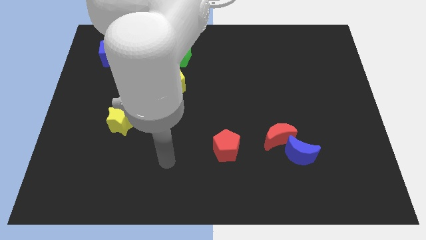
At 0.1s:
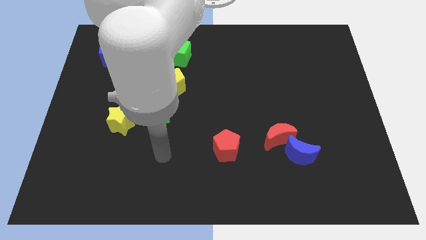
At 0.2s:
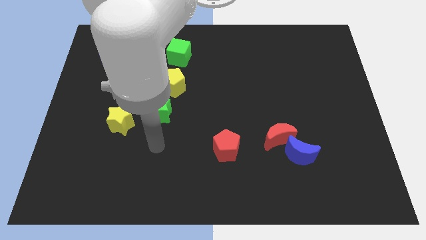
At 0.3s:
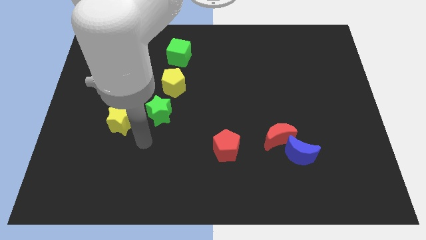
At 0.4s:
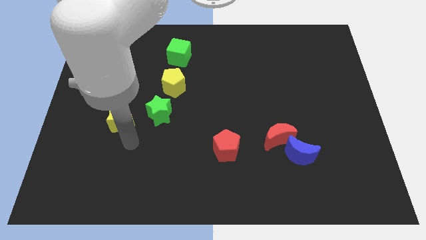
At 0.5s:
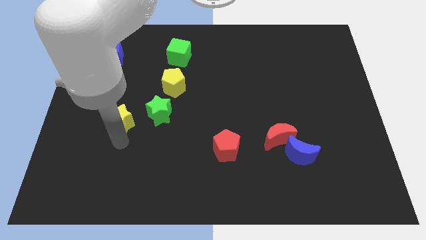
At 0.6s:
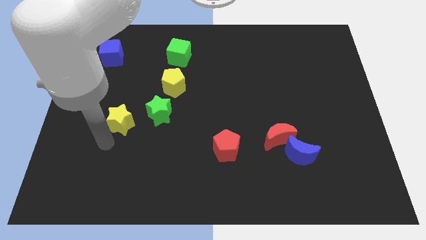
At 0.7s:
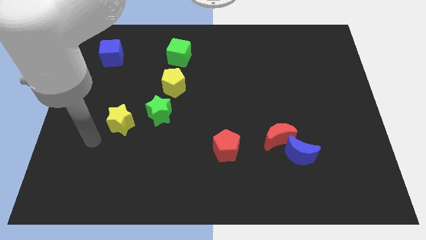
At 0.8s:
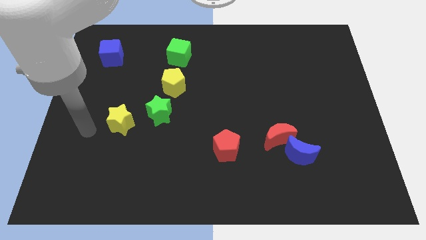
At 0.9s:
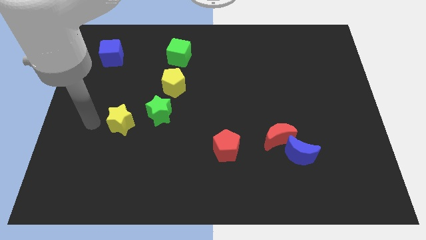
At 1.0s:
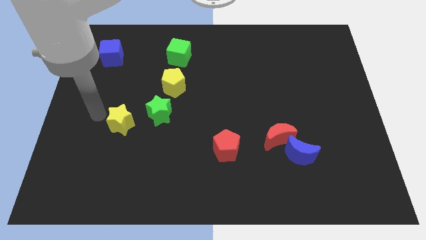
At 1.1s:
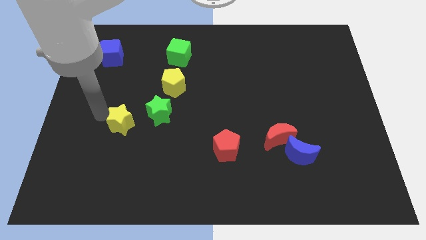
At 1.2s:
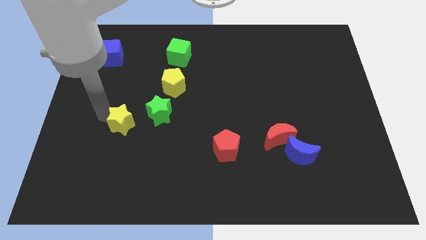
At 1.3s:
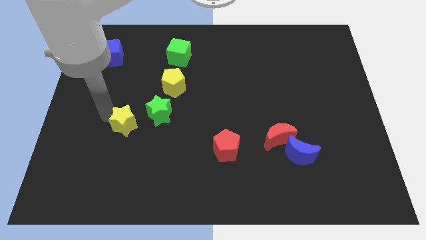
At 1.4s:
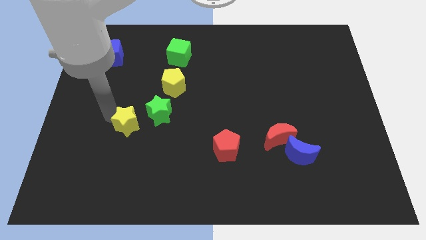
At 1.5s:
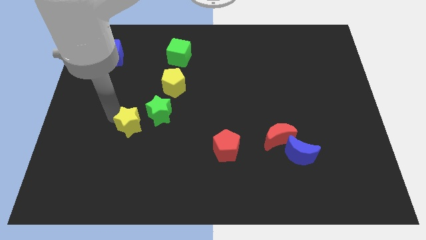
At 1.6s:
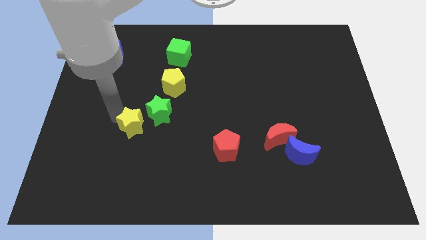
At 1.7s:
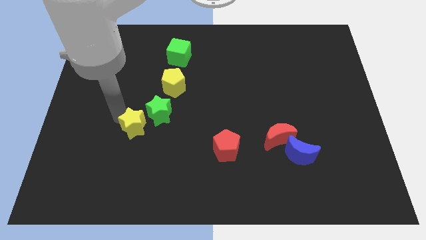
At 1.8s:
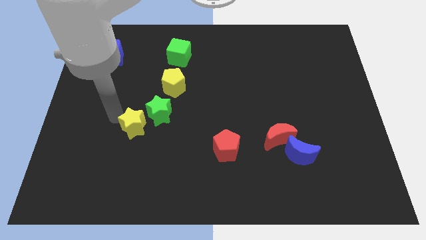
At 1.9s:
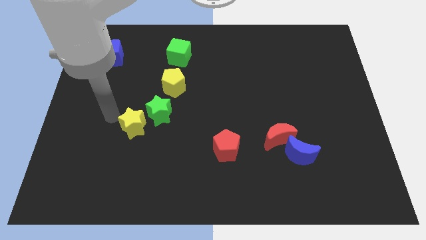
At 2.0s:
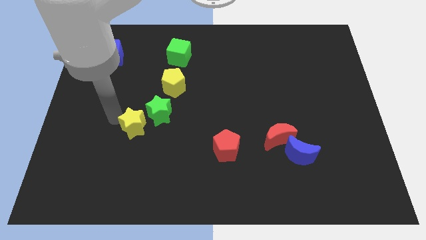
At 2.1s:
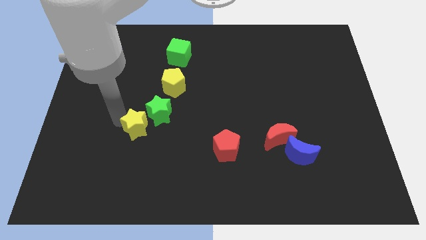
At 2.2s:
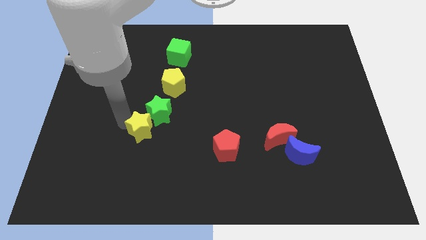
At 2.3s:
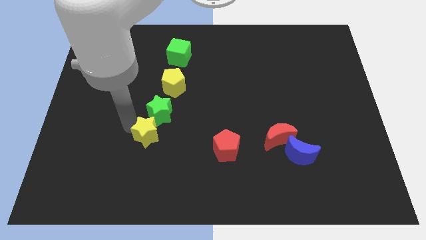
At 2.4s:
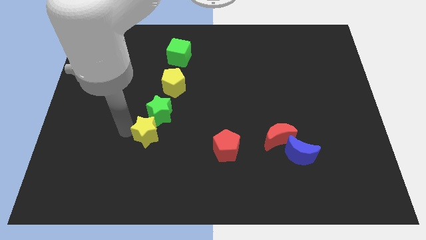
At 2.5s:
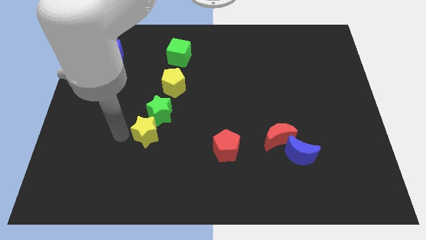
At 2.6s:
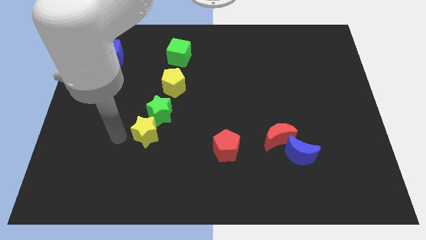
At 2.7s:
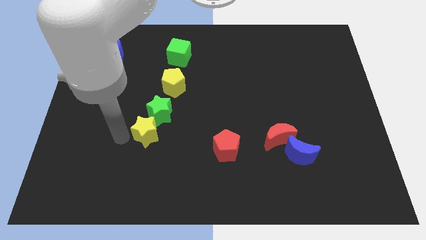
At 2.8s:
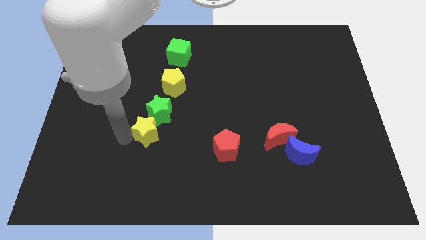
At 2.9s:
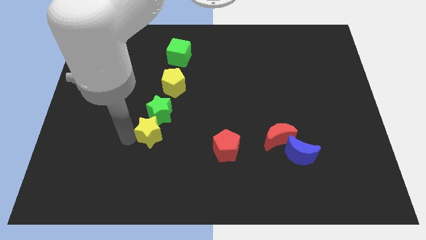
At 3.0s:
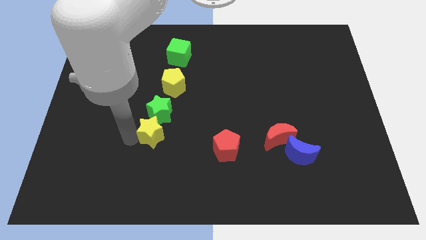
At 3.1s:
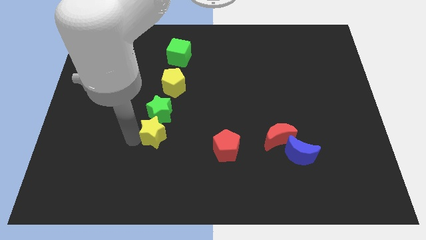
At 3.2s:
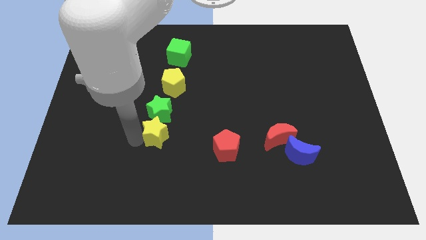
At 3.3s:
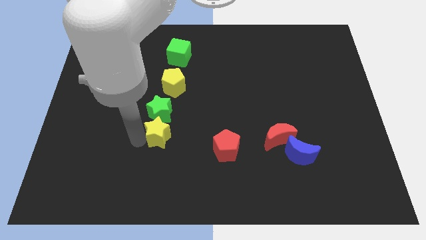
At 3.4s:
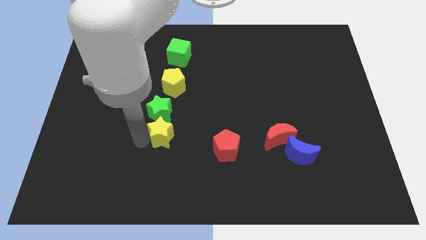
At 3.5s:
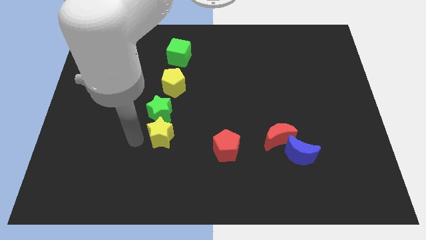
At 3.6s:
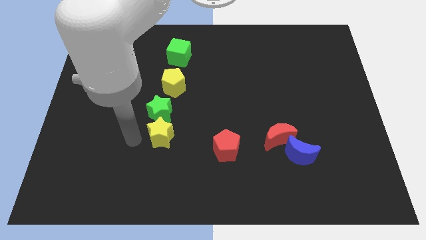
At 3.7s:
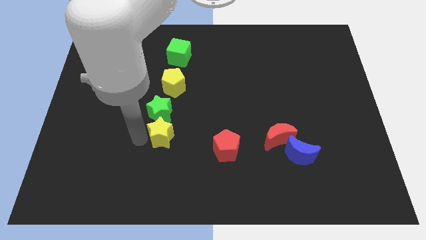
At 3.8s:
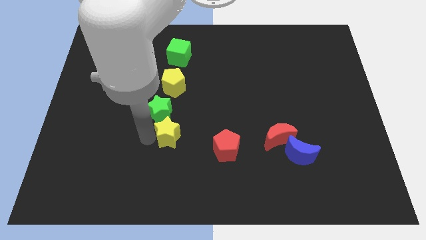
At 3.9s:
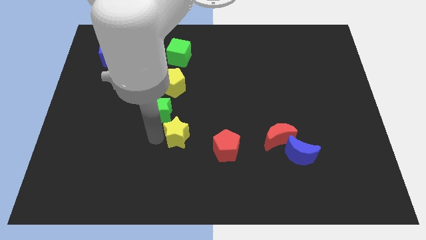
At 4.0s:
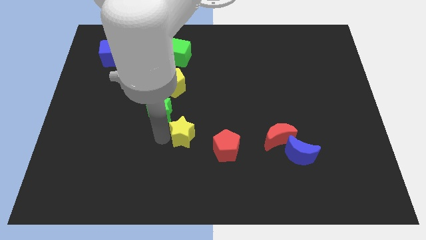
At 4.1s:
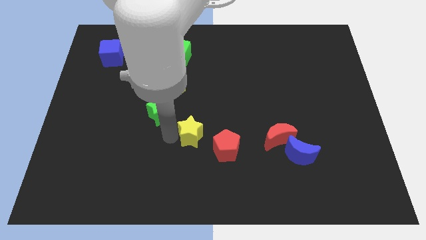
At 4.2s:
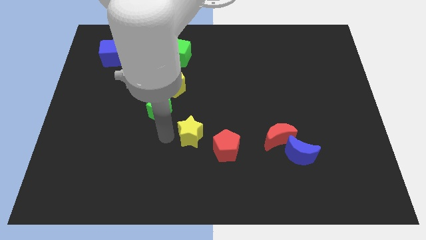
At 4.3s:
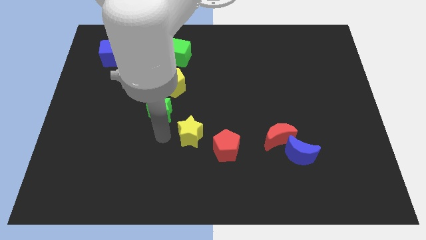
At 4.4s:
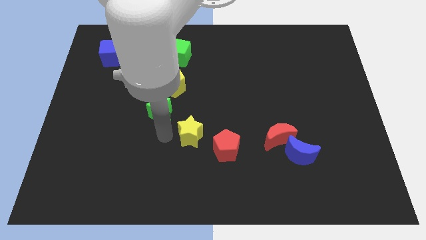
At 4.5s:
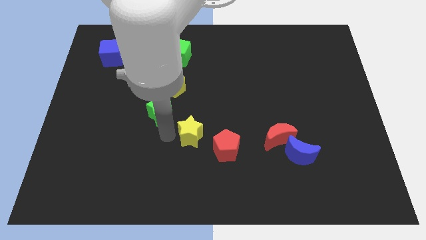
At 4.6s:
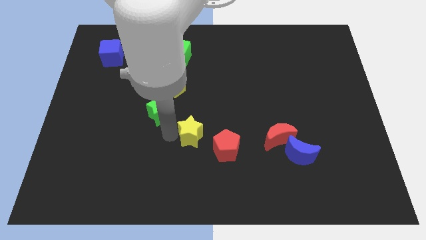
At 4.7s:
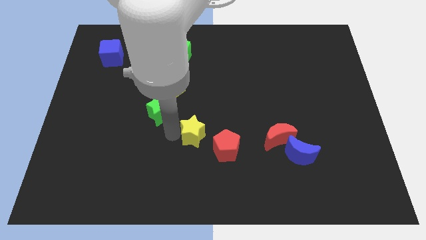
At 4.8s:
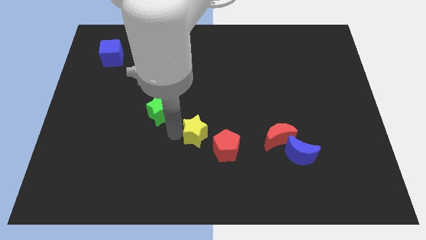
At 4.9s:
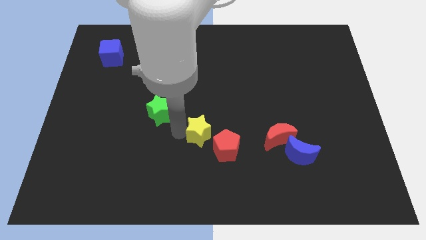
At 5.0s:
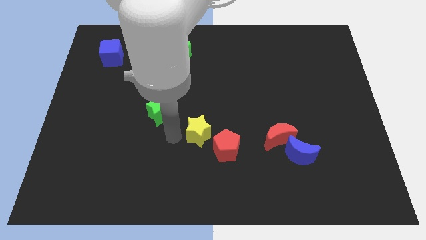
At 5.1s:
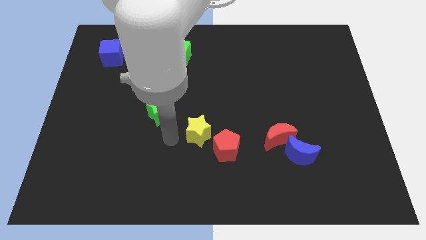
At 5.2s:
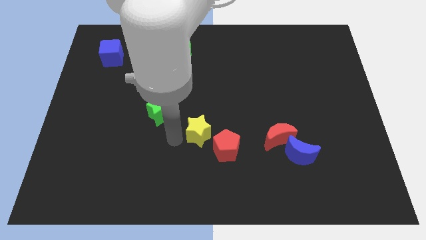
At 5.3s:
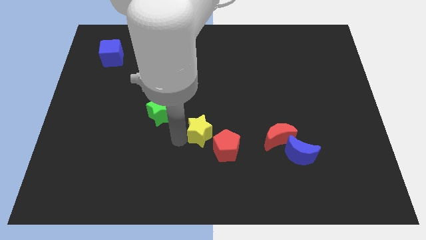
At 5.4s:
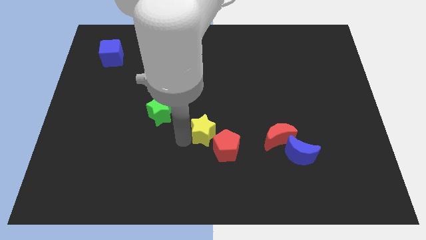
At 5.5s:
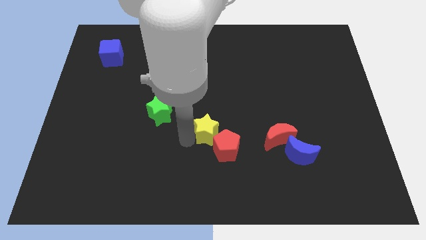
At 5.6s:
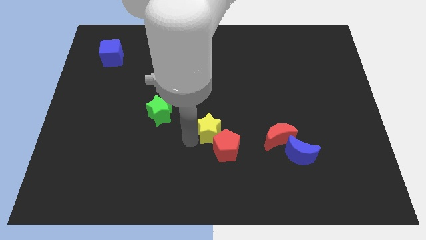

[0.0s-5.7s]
slide the yellow star to the right

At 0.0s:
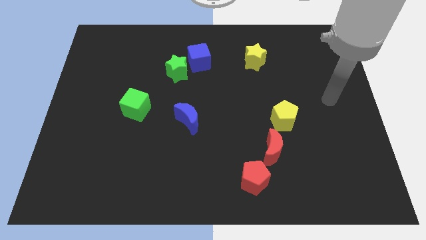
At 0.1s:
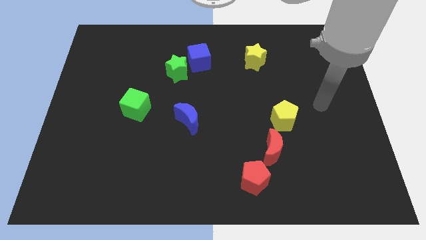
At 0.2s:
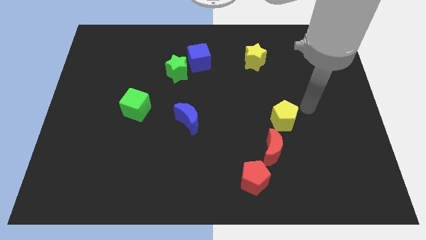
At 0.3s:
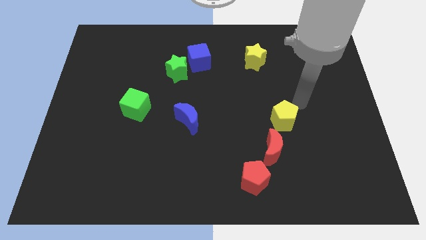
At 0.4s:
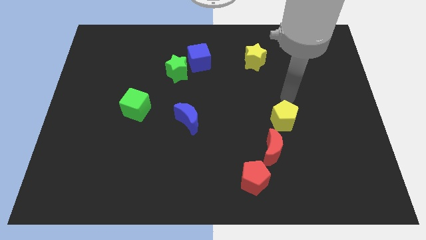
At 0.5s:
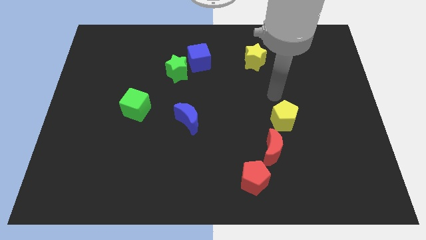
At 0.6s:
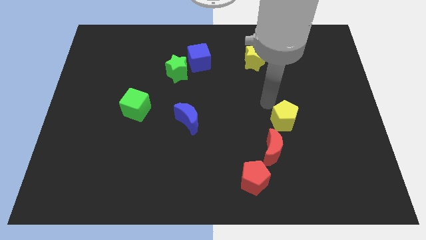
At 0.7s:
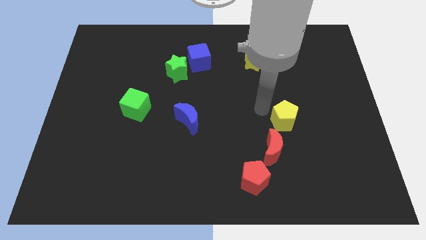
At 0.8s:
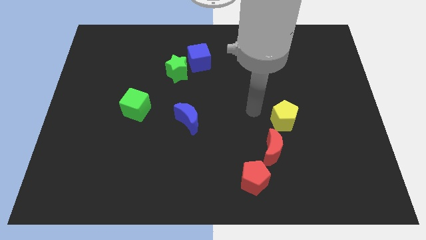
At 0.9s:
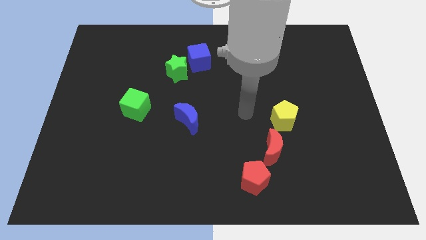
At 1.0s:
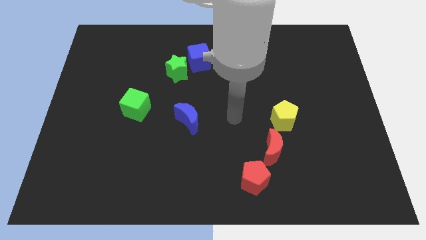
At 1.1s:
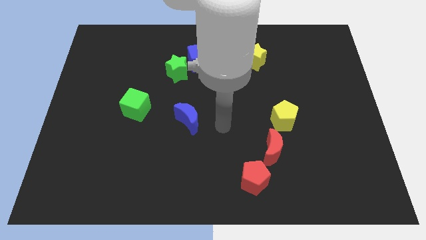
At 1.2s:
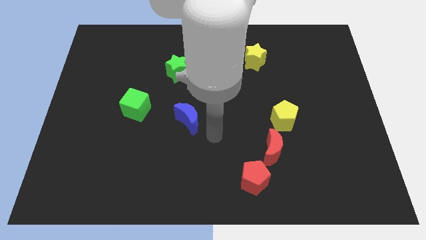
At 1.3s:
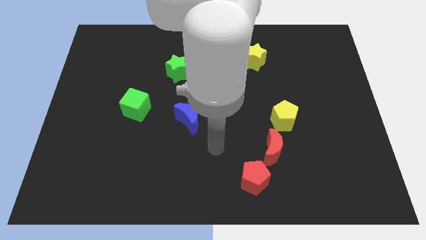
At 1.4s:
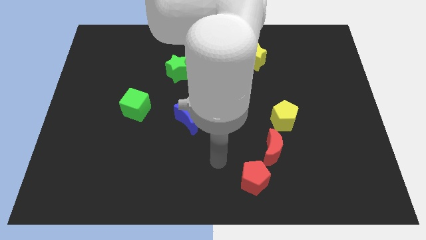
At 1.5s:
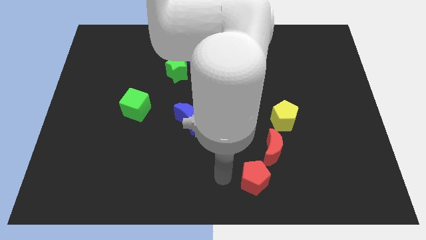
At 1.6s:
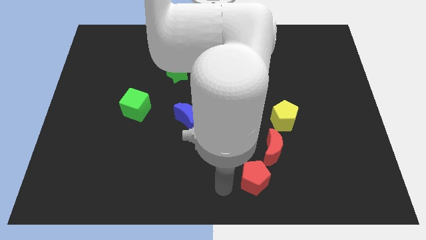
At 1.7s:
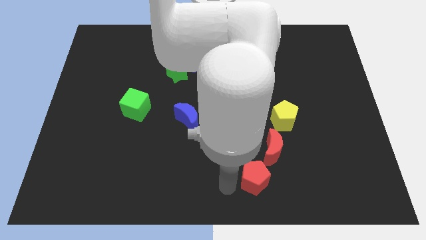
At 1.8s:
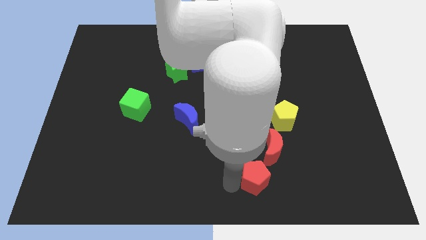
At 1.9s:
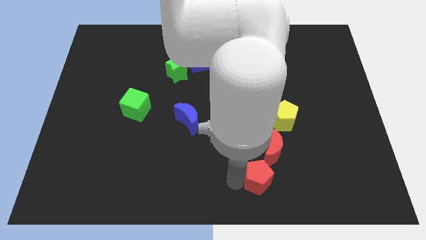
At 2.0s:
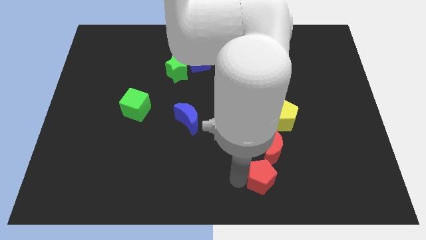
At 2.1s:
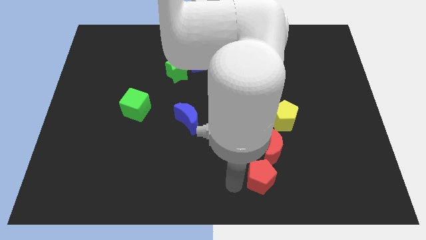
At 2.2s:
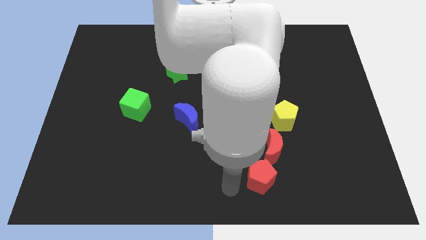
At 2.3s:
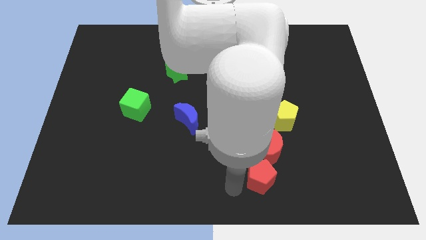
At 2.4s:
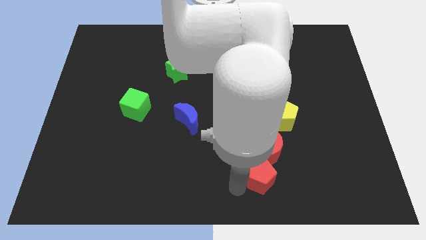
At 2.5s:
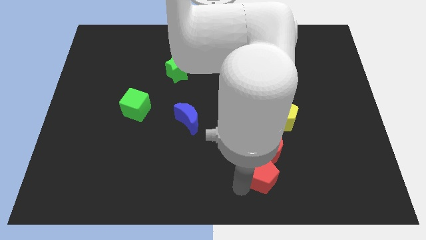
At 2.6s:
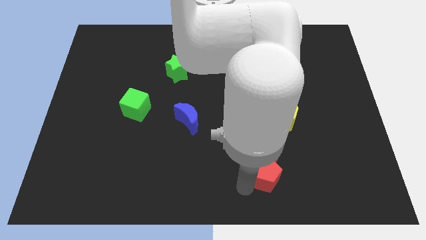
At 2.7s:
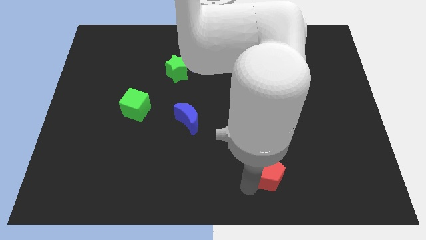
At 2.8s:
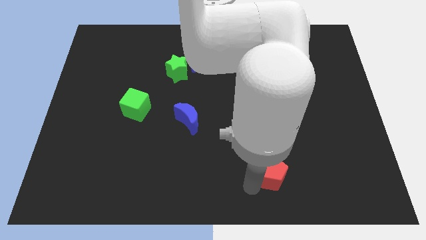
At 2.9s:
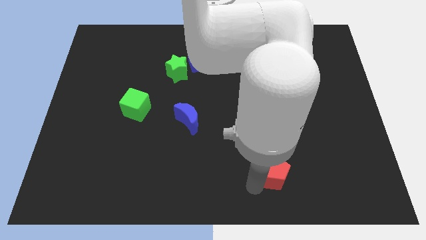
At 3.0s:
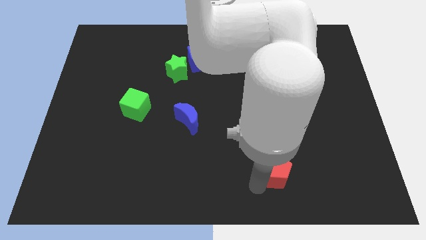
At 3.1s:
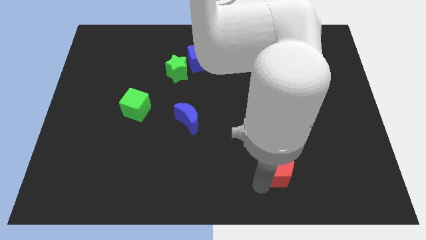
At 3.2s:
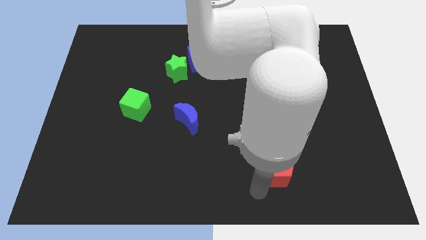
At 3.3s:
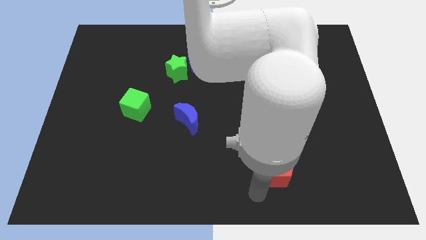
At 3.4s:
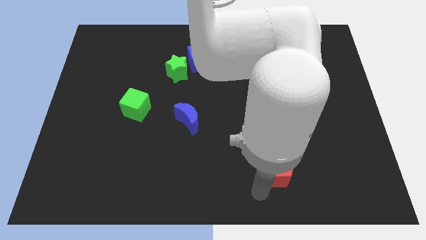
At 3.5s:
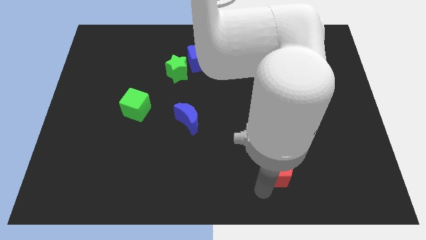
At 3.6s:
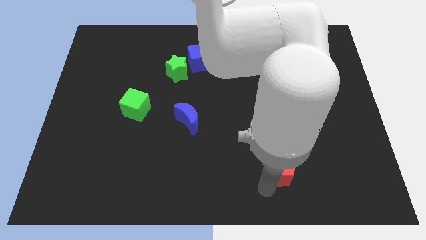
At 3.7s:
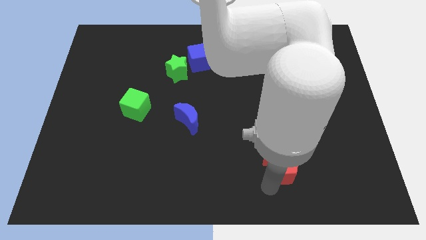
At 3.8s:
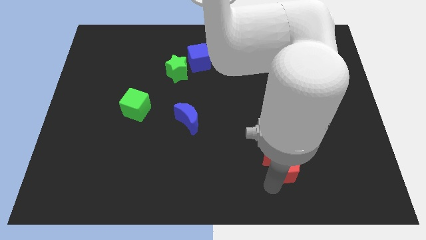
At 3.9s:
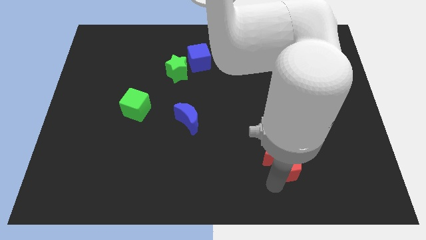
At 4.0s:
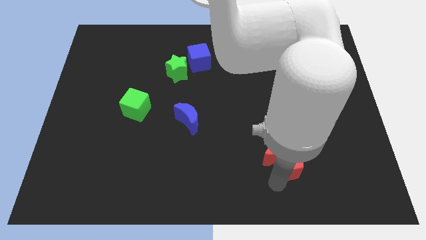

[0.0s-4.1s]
push the red pentagon somewhat up and right
